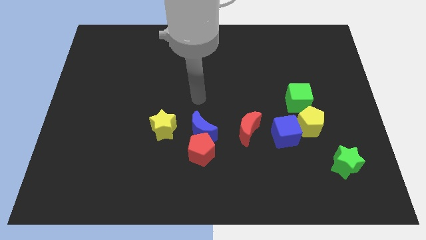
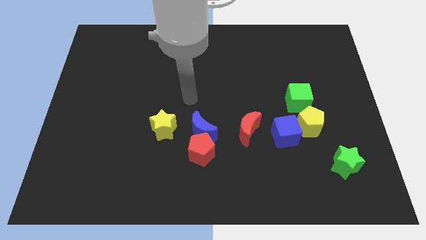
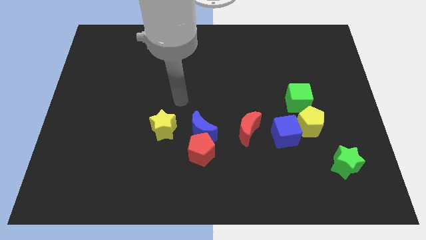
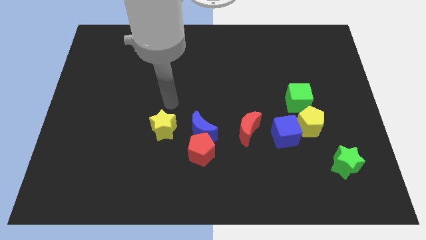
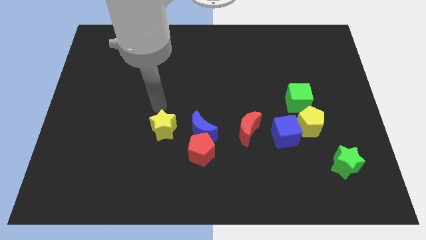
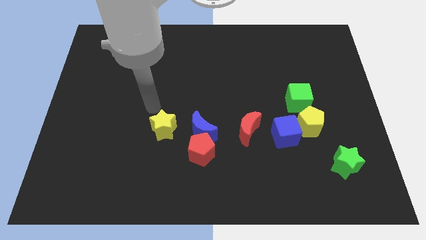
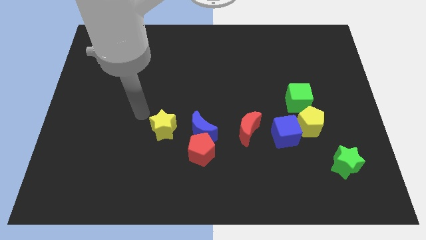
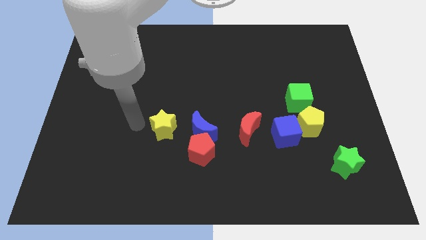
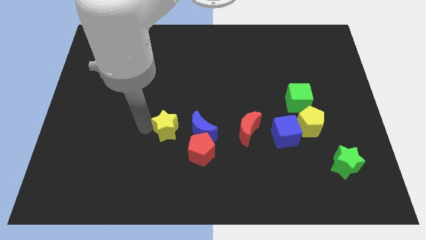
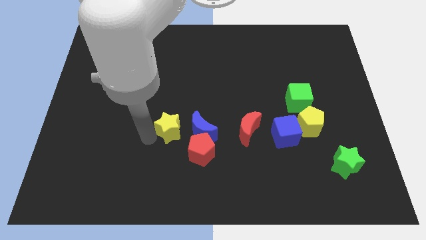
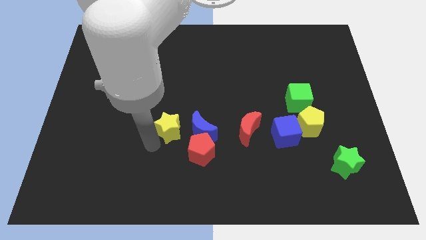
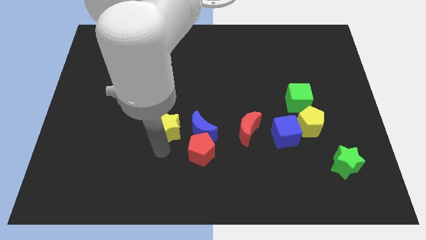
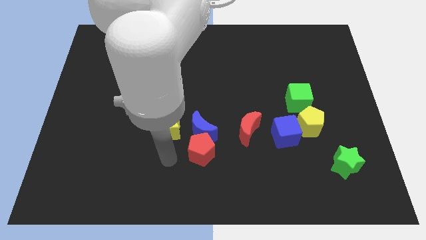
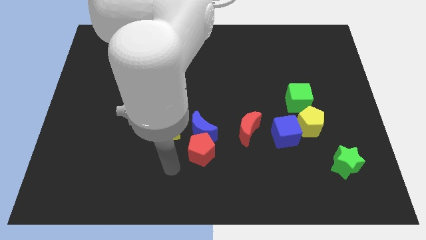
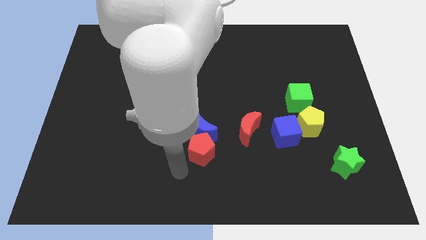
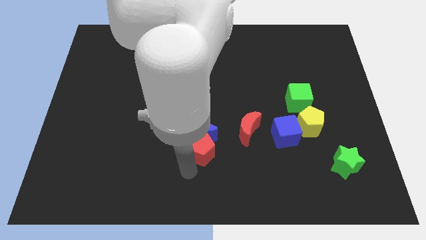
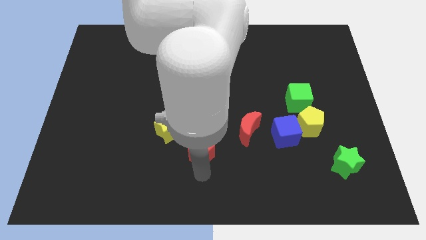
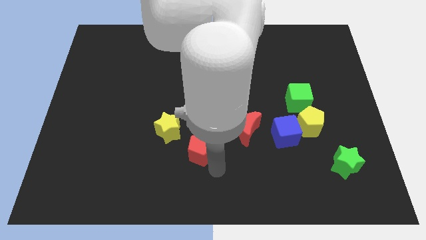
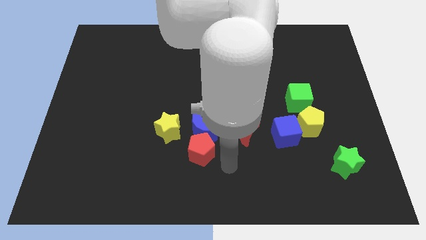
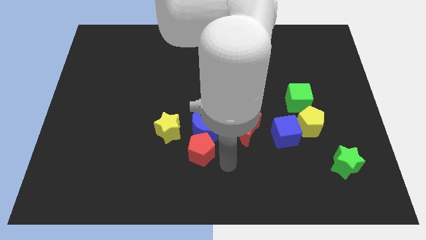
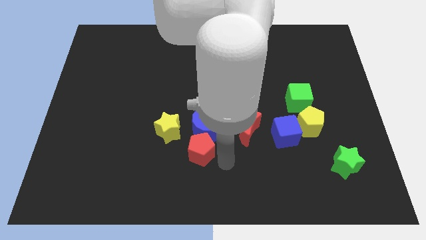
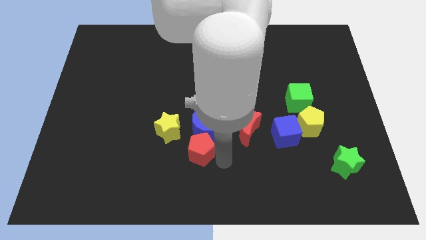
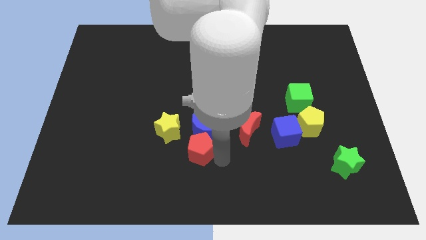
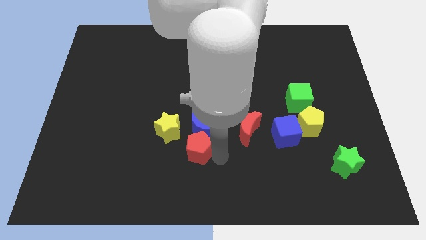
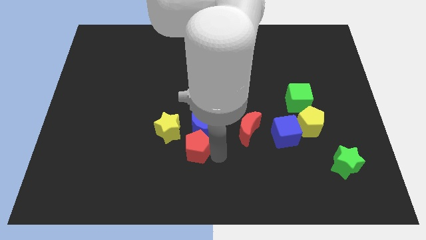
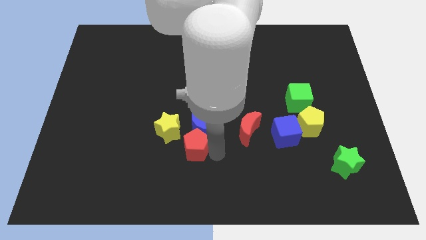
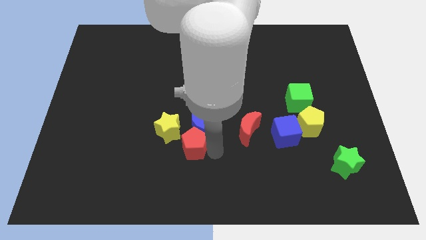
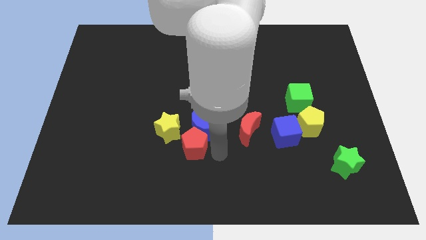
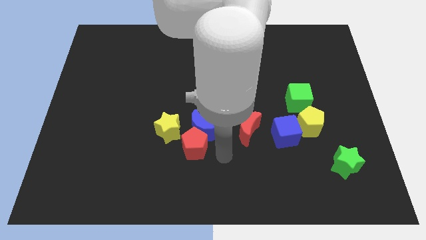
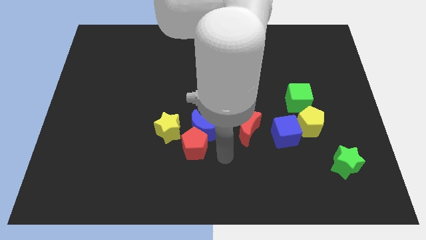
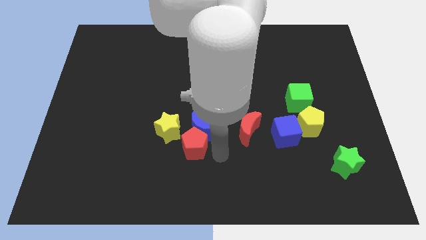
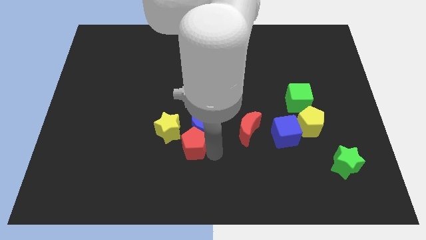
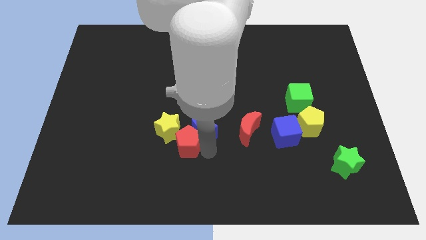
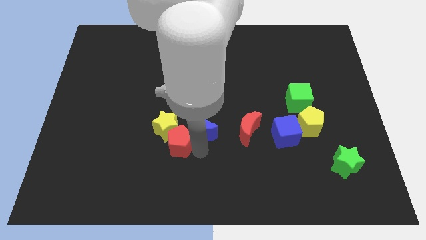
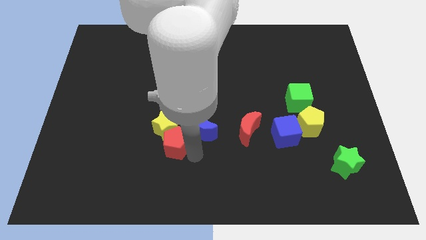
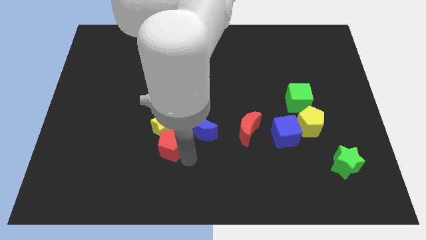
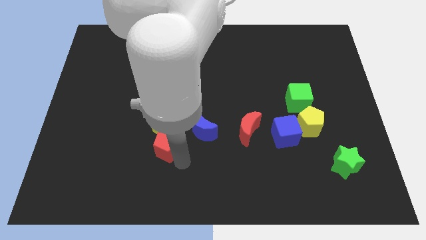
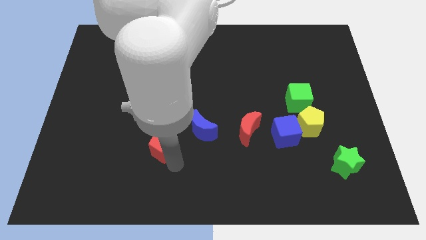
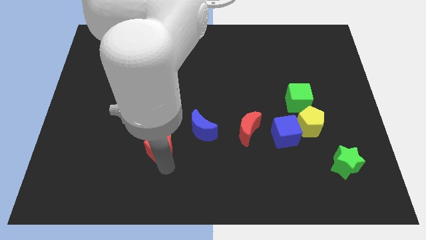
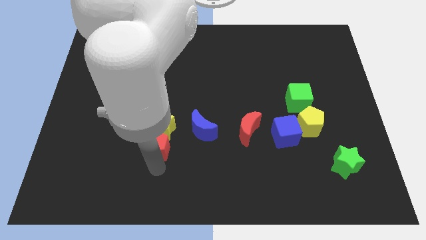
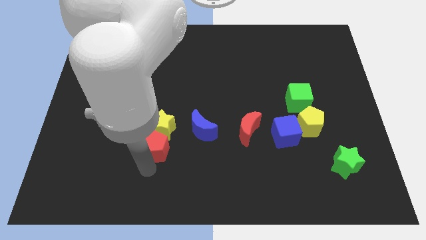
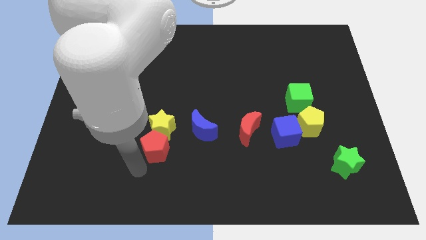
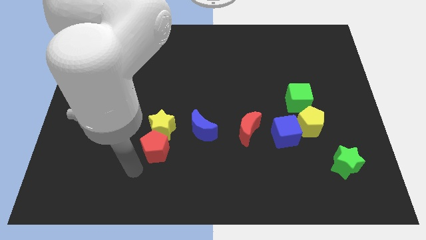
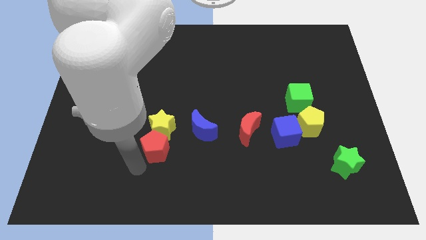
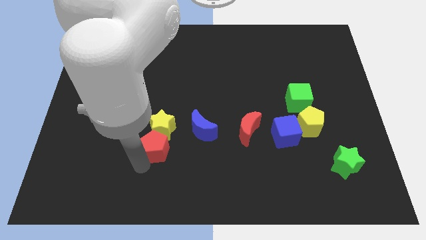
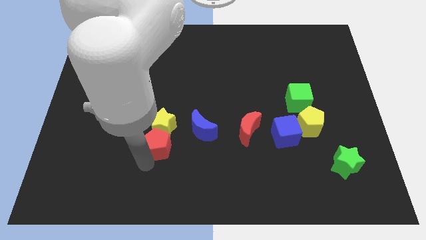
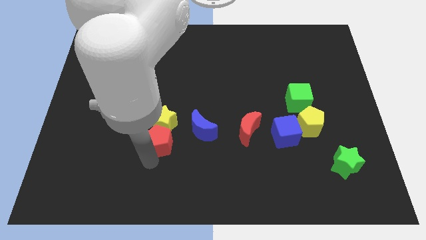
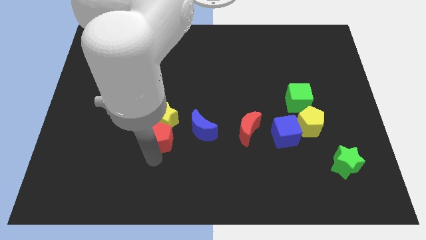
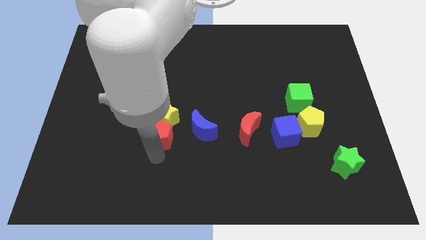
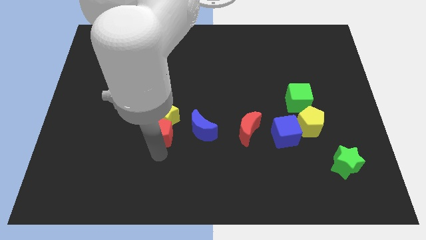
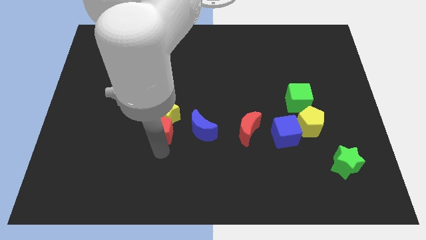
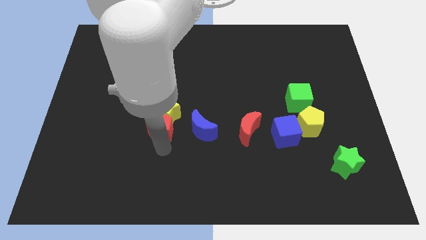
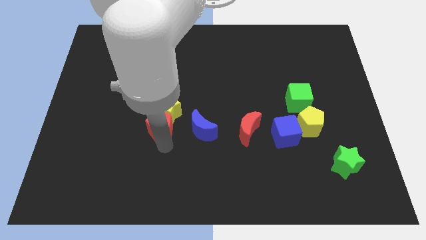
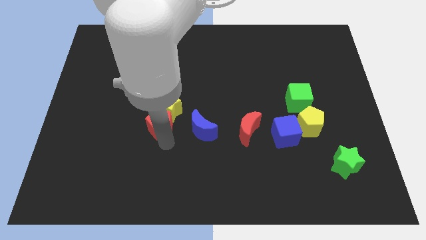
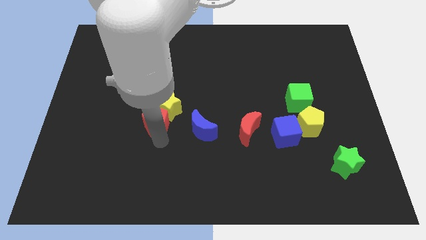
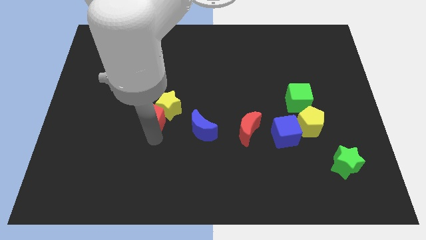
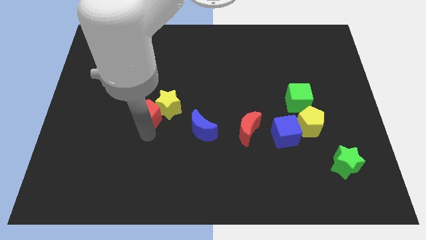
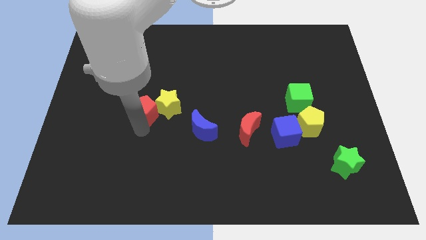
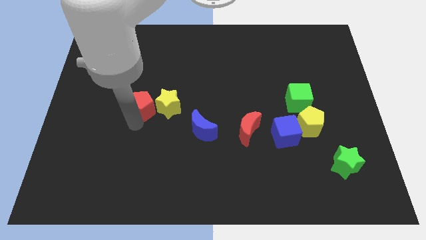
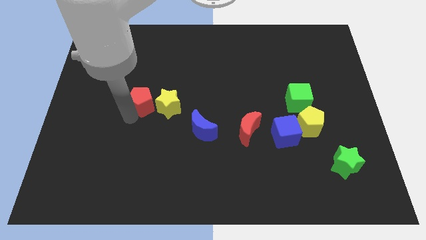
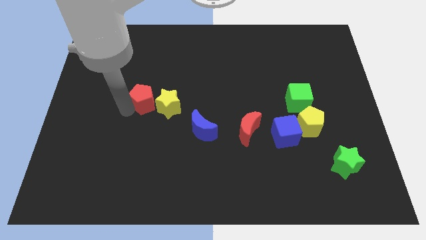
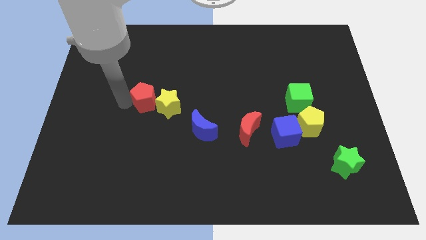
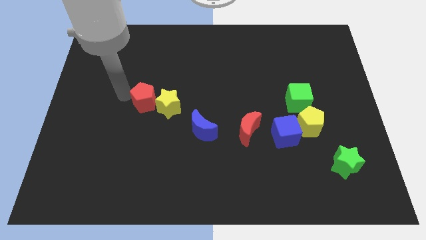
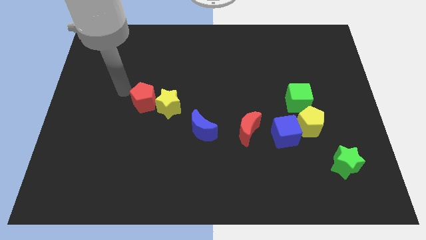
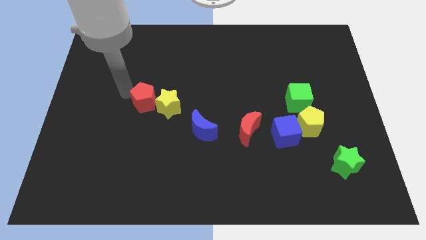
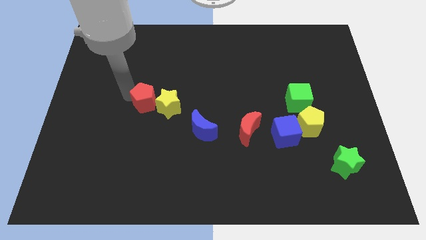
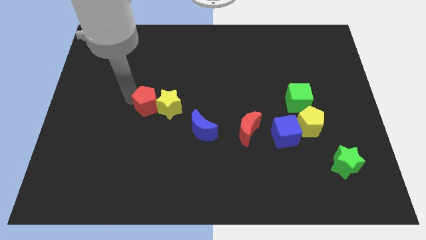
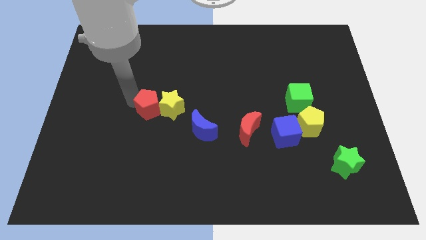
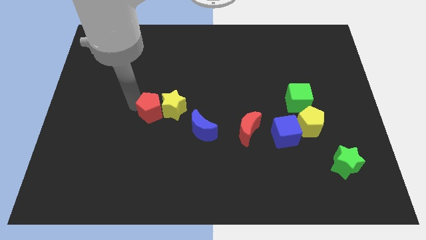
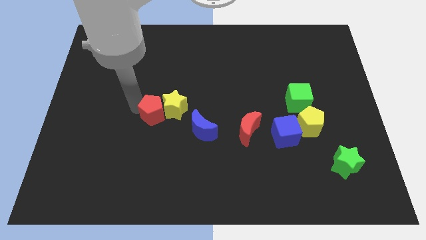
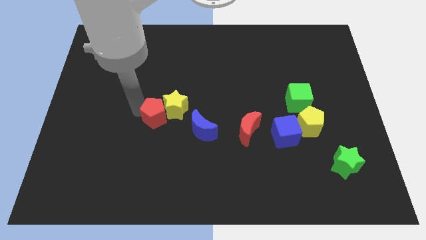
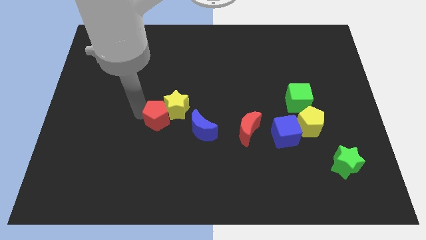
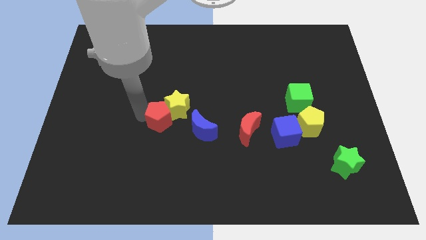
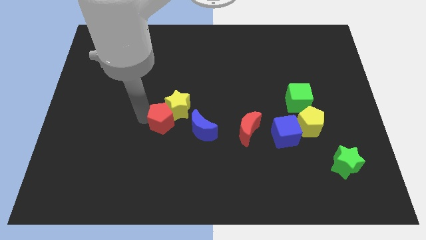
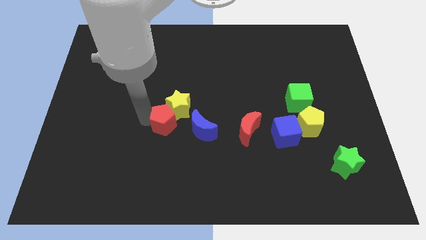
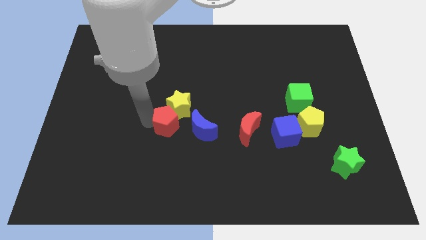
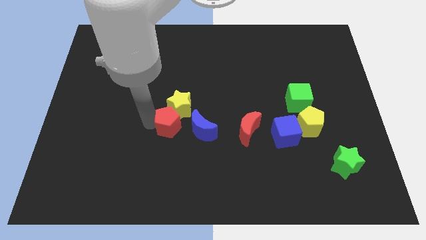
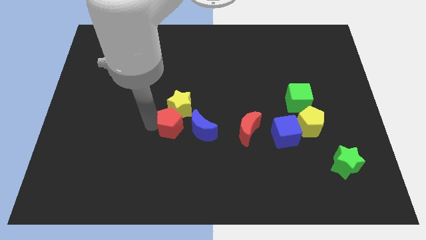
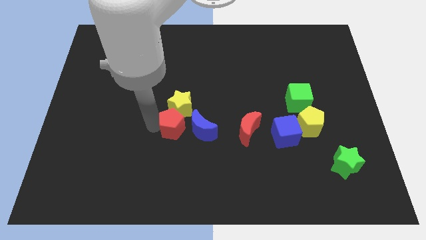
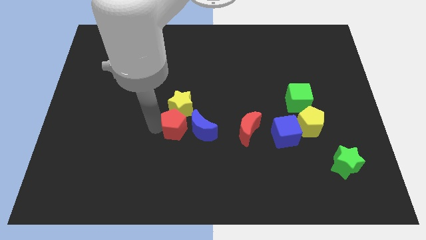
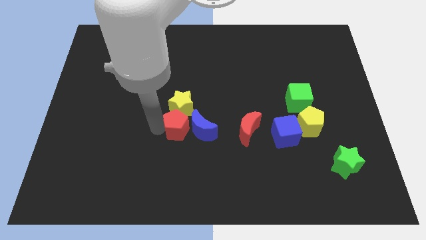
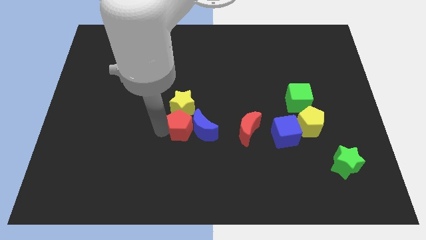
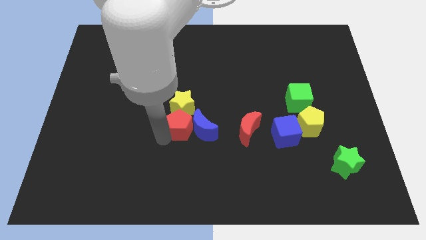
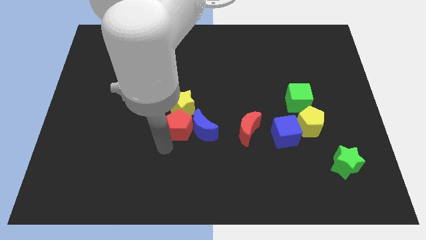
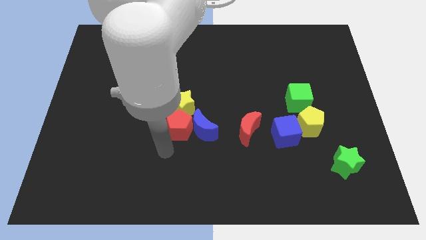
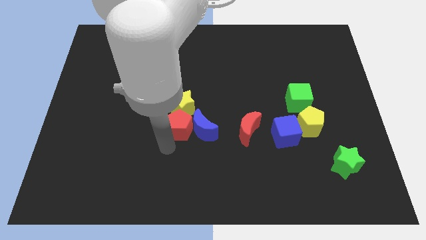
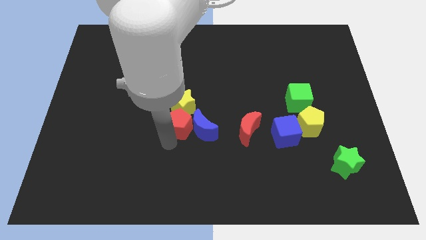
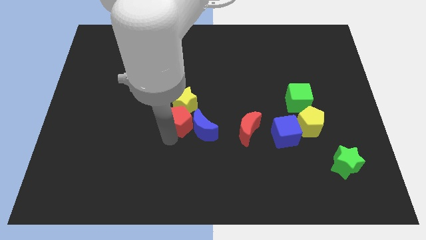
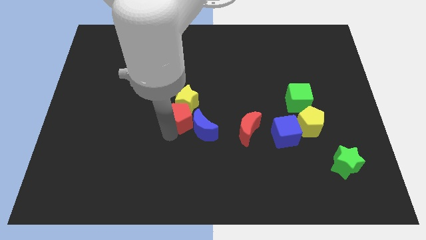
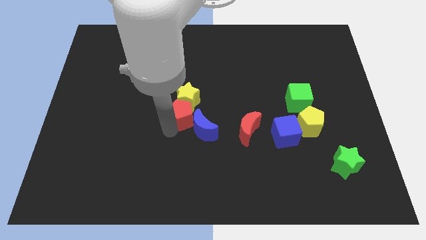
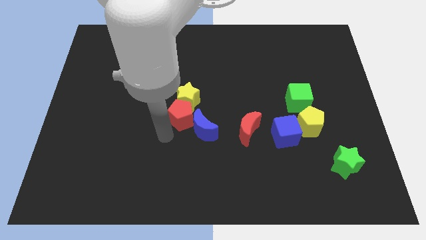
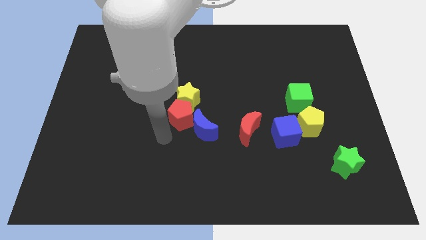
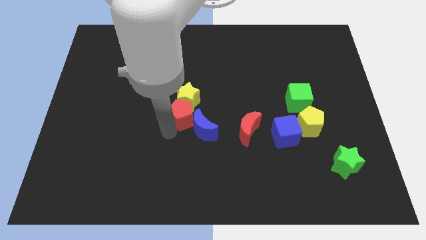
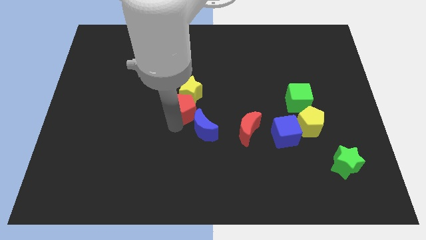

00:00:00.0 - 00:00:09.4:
put the red pentagon to the top side of the blue moon
